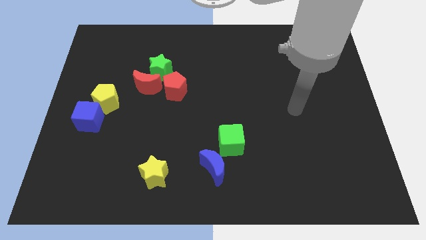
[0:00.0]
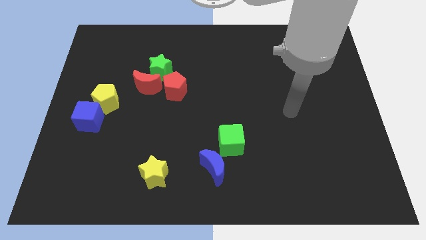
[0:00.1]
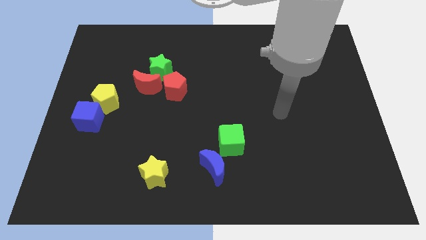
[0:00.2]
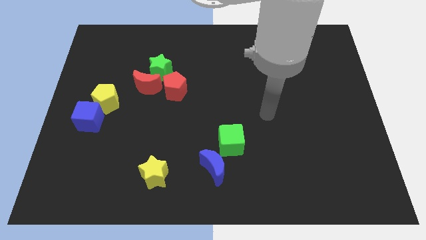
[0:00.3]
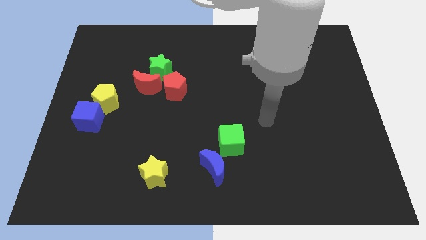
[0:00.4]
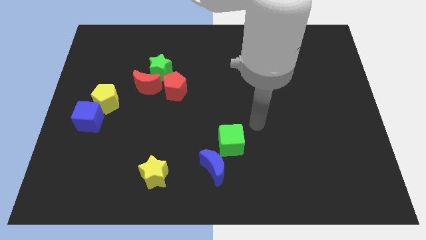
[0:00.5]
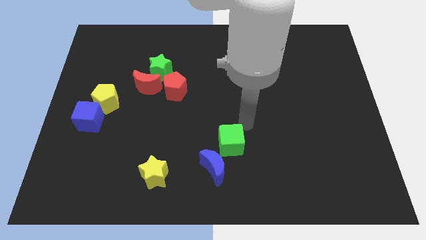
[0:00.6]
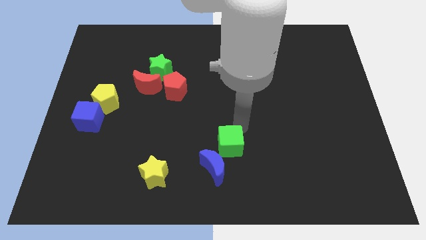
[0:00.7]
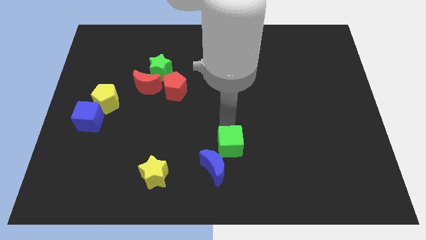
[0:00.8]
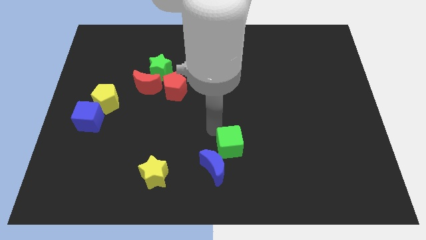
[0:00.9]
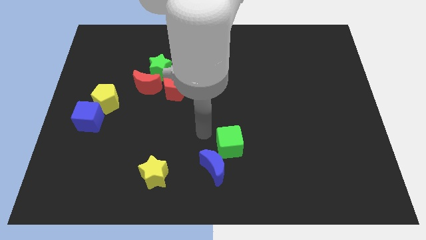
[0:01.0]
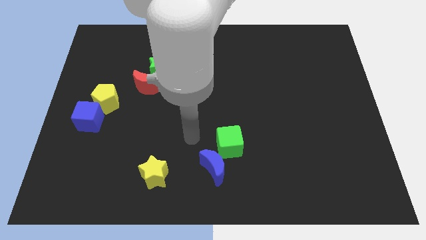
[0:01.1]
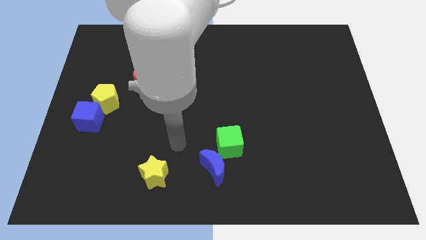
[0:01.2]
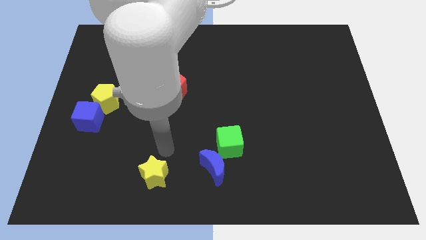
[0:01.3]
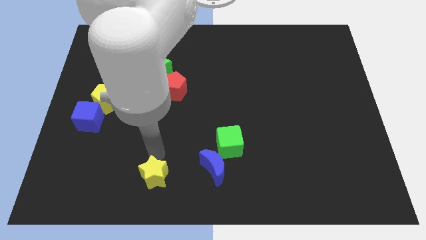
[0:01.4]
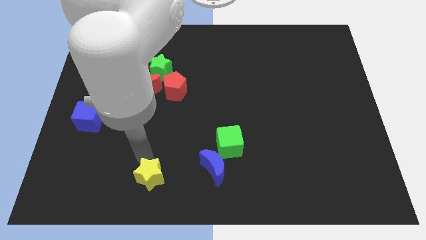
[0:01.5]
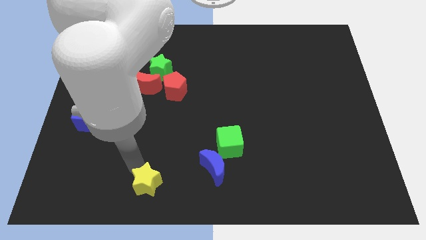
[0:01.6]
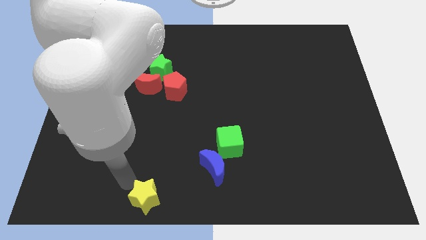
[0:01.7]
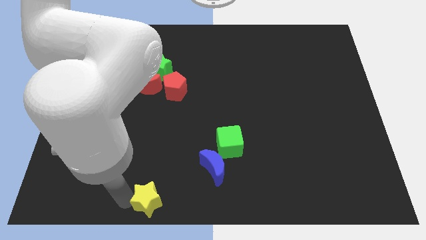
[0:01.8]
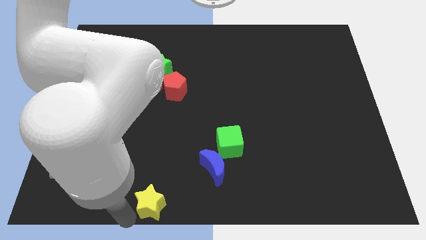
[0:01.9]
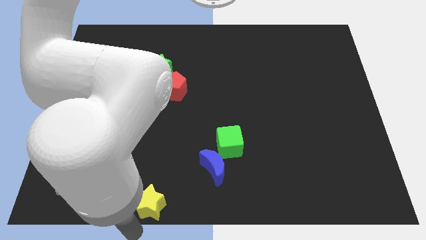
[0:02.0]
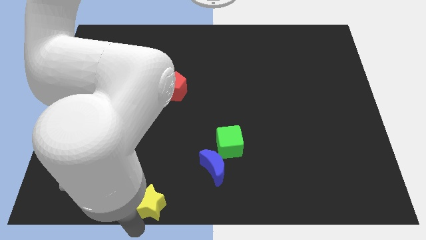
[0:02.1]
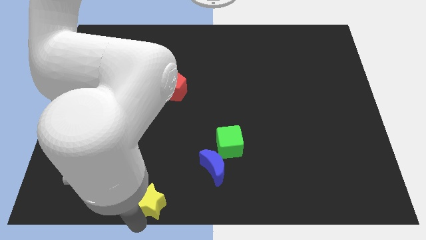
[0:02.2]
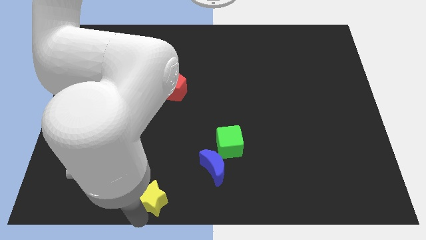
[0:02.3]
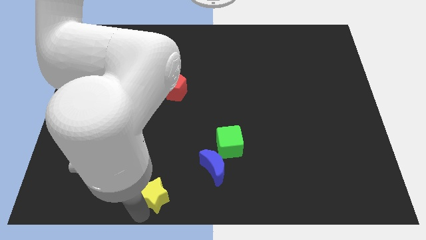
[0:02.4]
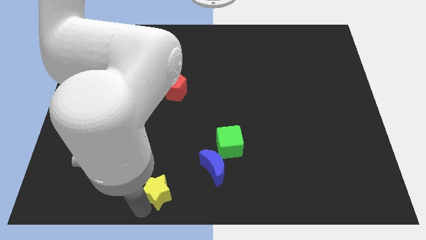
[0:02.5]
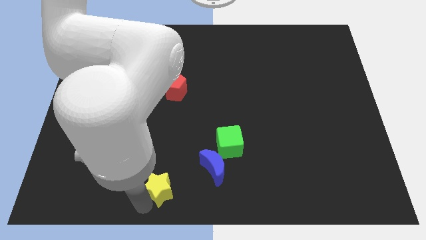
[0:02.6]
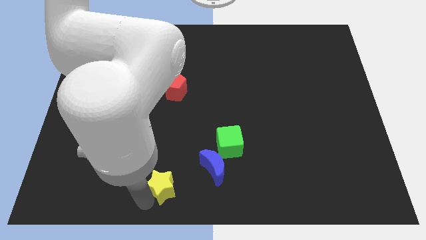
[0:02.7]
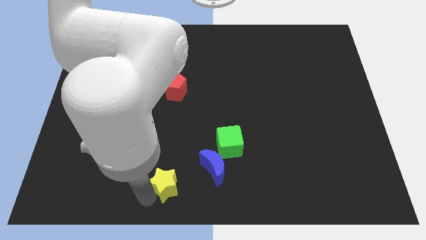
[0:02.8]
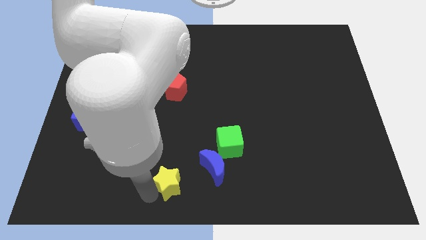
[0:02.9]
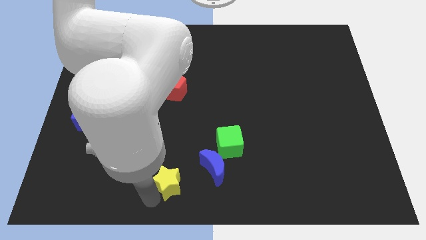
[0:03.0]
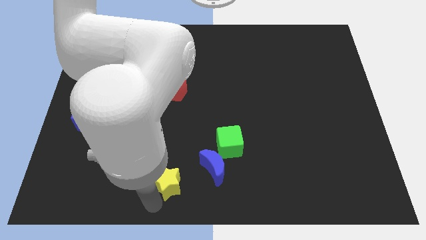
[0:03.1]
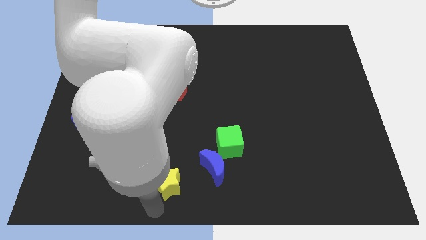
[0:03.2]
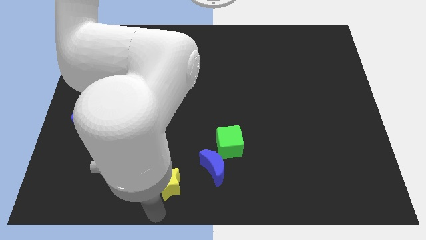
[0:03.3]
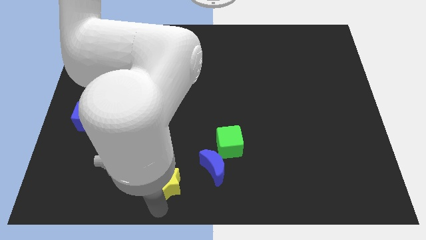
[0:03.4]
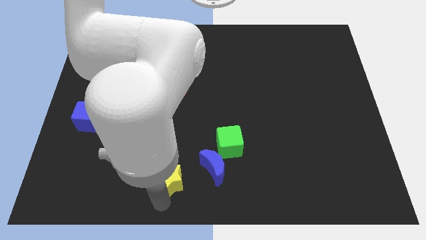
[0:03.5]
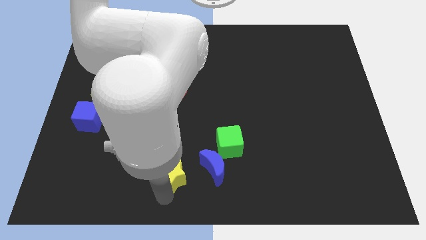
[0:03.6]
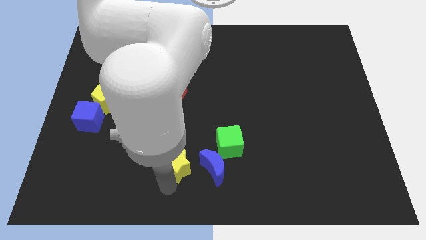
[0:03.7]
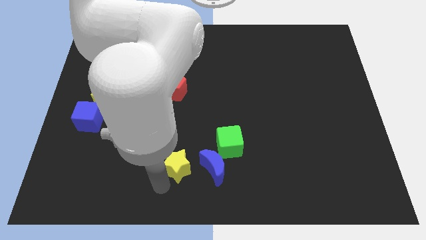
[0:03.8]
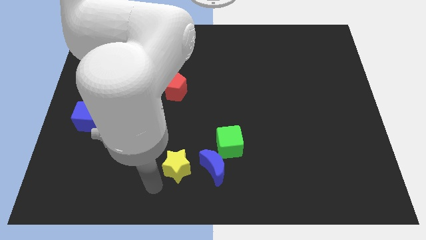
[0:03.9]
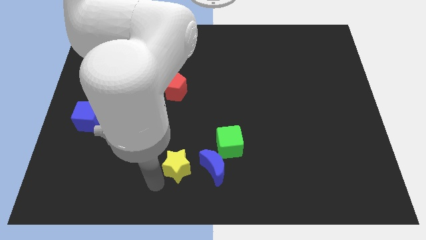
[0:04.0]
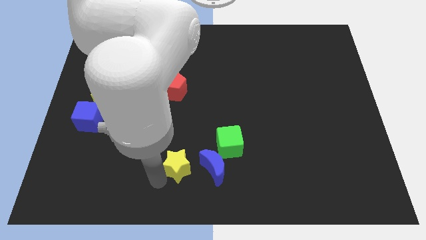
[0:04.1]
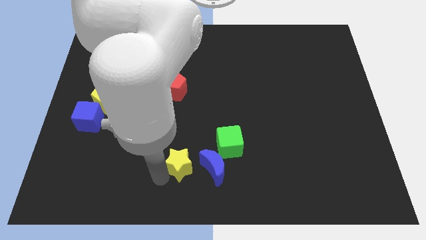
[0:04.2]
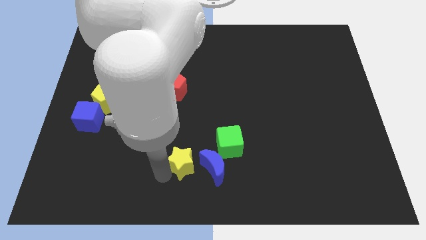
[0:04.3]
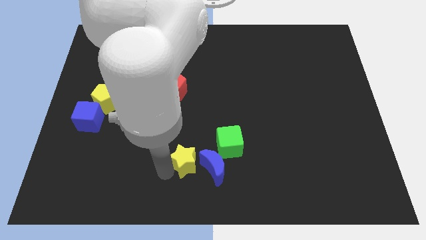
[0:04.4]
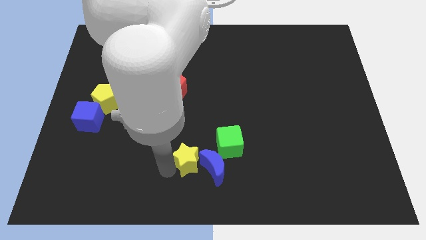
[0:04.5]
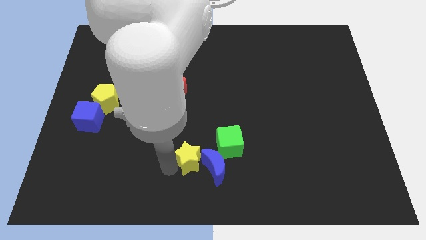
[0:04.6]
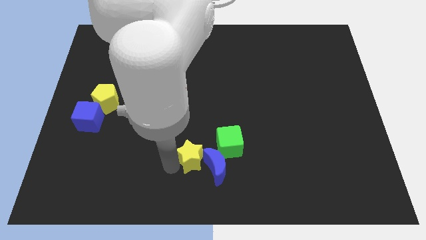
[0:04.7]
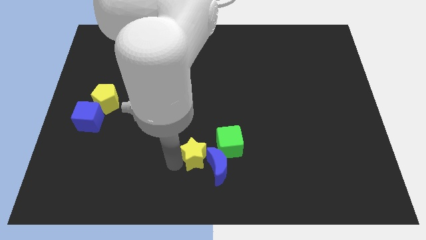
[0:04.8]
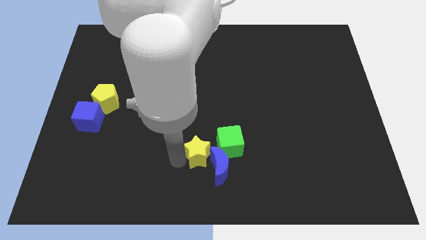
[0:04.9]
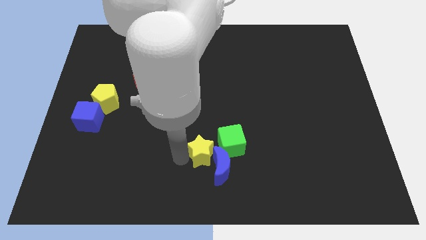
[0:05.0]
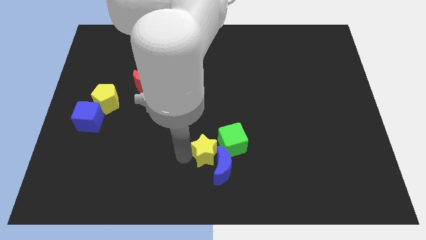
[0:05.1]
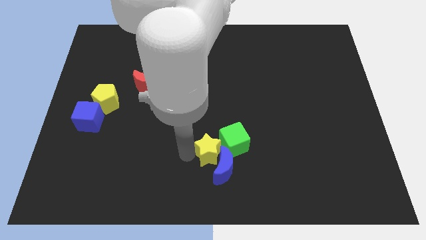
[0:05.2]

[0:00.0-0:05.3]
slide the yellow star close to the green cube
